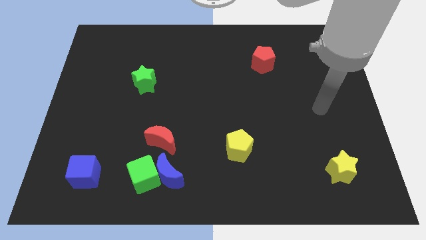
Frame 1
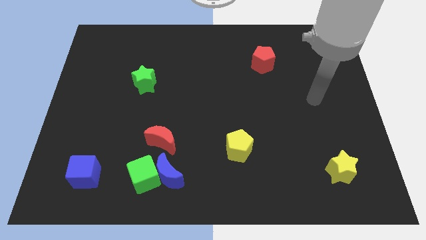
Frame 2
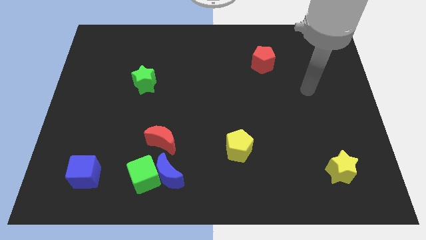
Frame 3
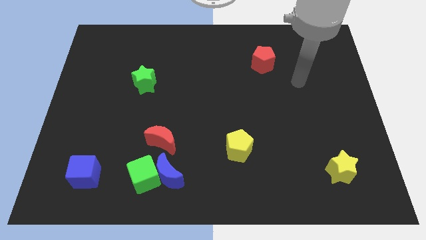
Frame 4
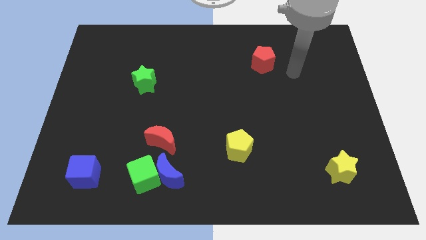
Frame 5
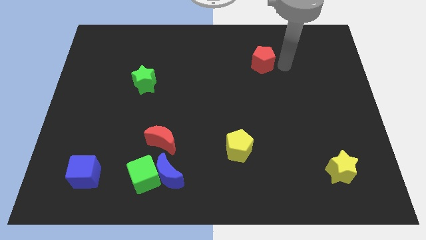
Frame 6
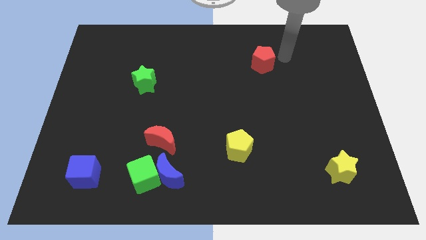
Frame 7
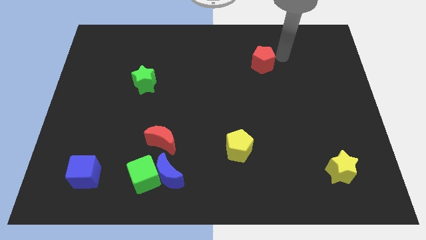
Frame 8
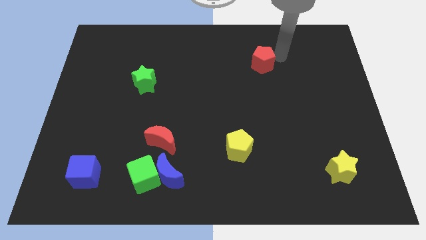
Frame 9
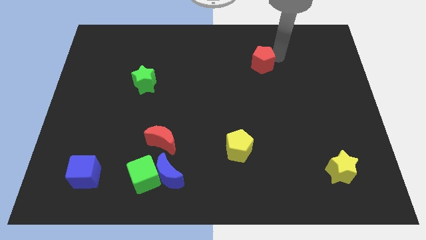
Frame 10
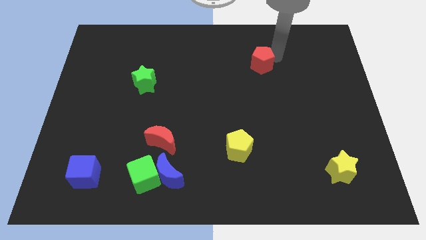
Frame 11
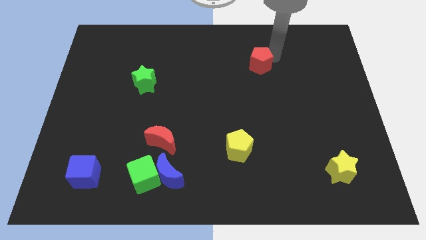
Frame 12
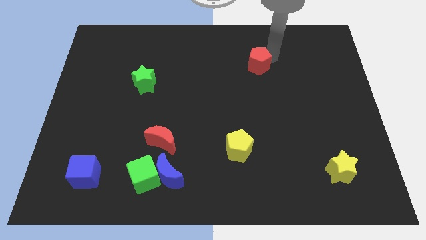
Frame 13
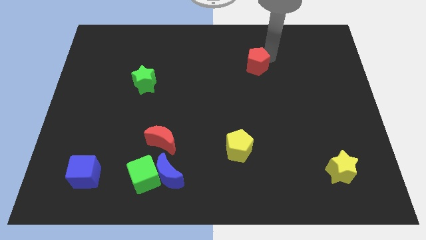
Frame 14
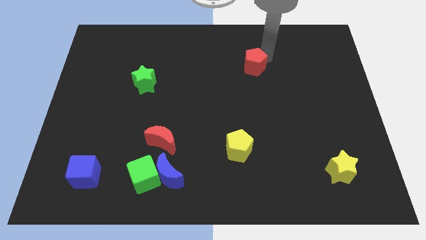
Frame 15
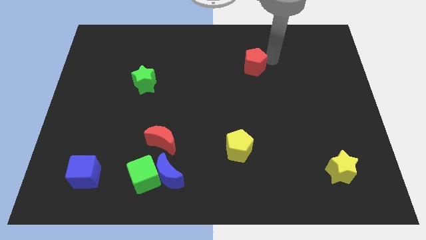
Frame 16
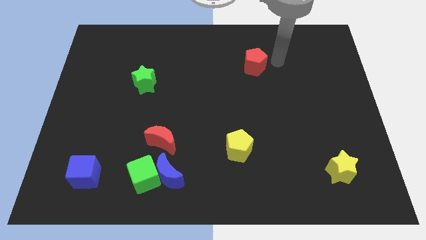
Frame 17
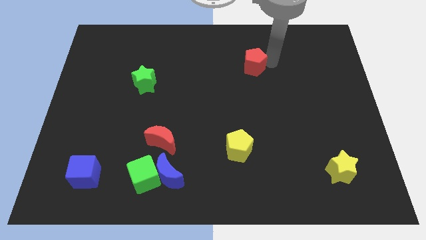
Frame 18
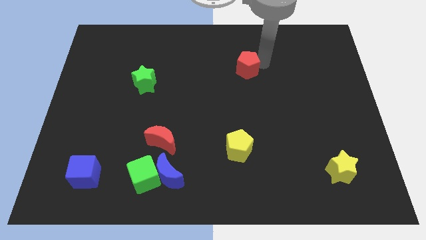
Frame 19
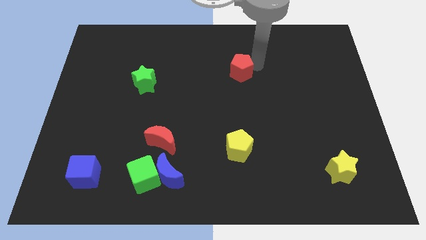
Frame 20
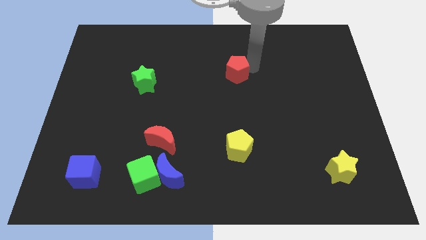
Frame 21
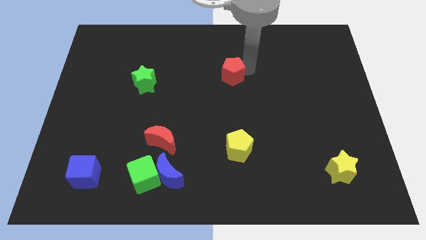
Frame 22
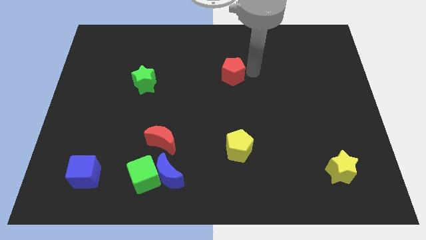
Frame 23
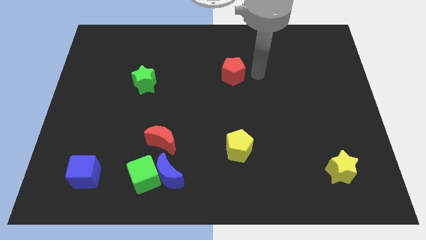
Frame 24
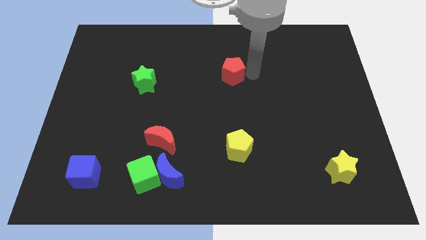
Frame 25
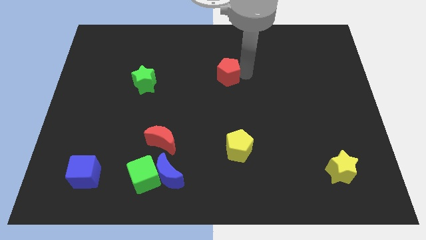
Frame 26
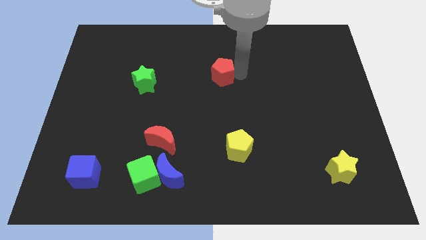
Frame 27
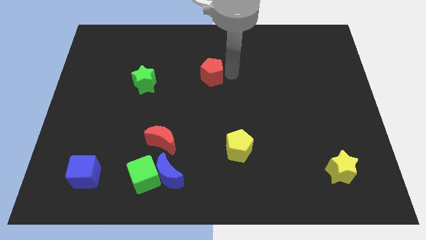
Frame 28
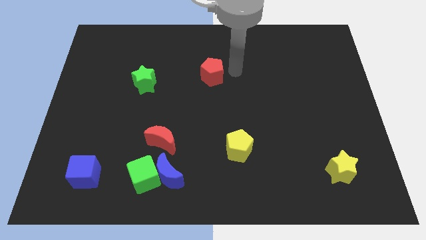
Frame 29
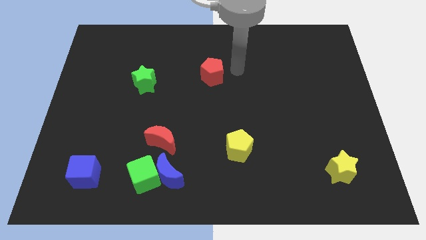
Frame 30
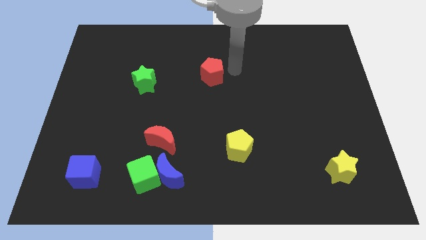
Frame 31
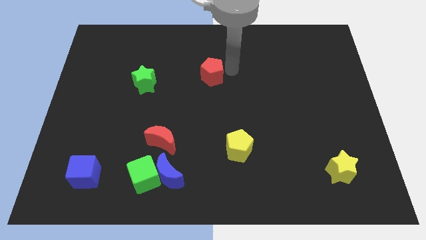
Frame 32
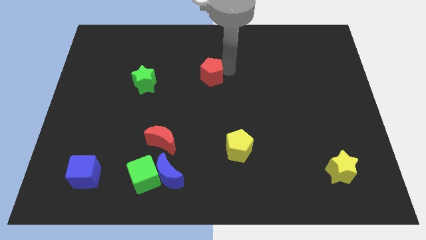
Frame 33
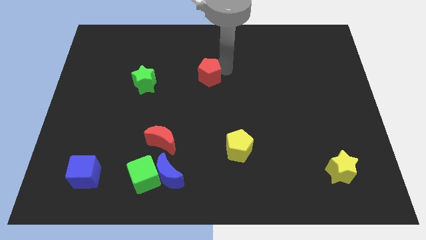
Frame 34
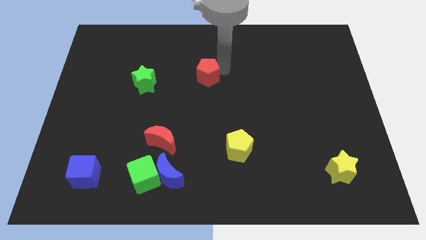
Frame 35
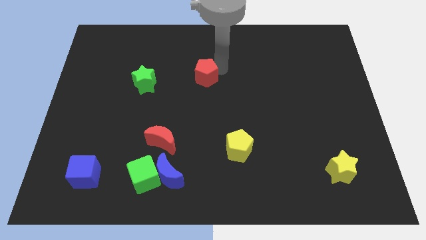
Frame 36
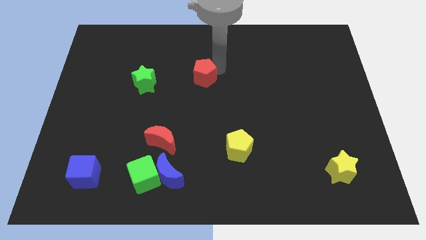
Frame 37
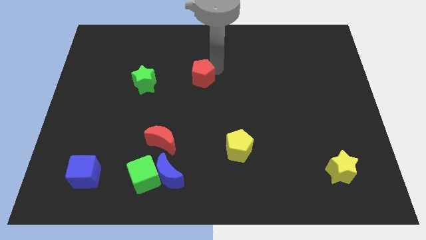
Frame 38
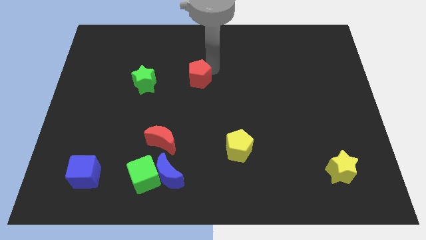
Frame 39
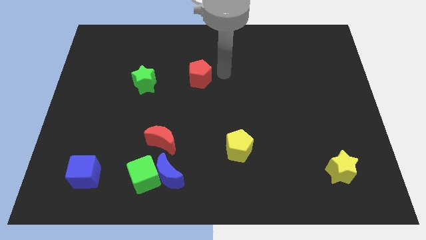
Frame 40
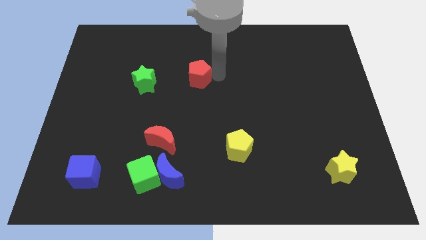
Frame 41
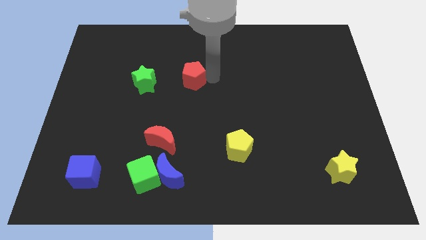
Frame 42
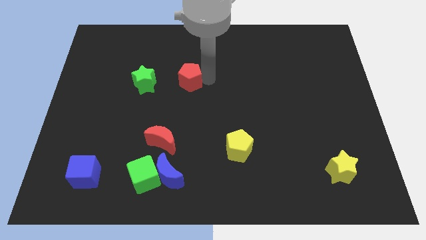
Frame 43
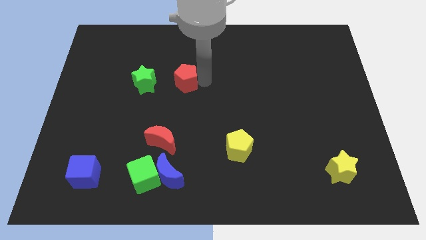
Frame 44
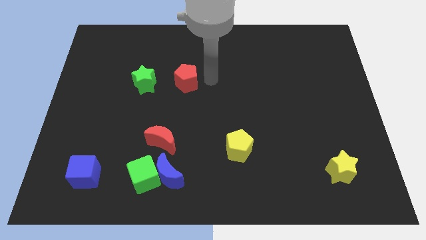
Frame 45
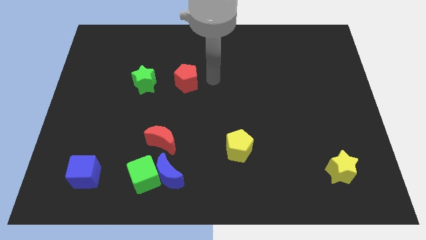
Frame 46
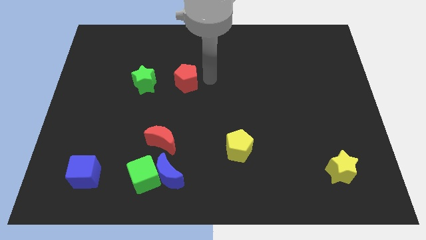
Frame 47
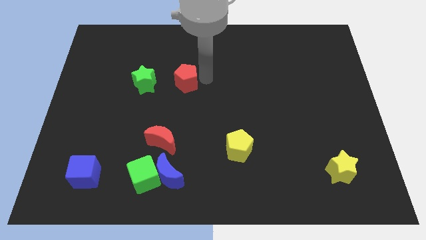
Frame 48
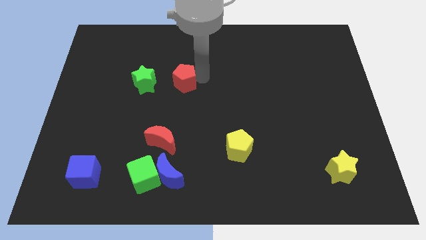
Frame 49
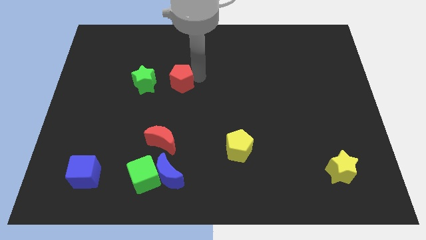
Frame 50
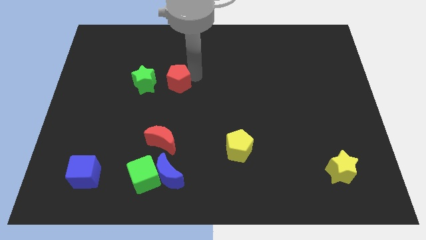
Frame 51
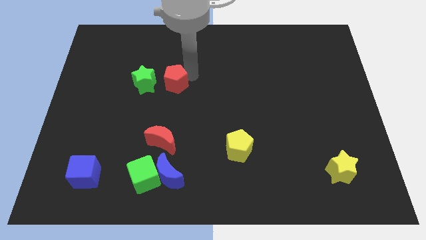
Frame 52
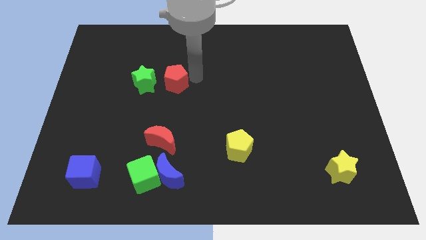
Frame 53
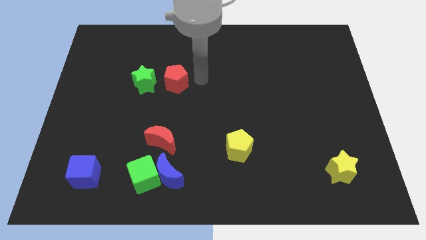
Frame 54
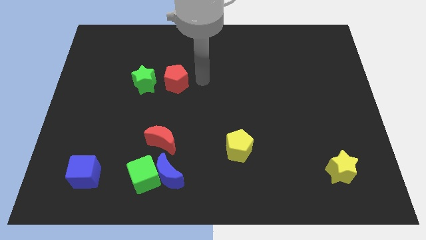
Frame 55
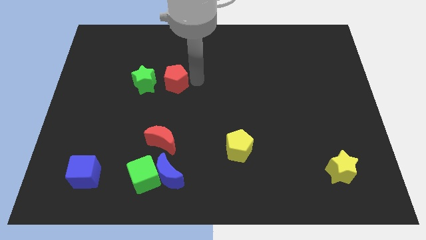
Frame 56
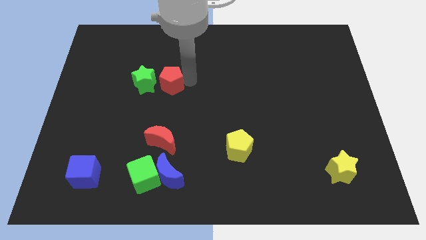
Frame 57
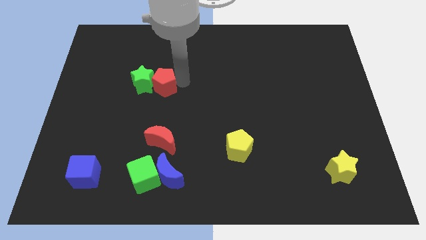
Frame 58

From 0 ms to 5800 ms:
move the red pentagon next to the green star

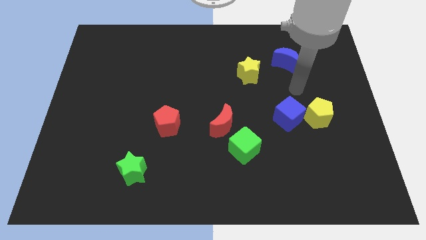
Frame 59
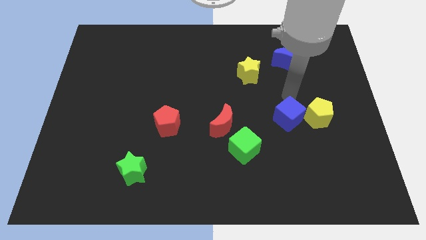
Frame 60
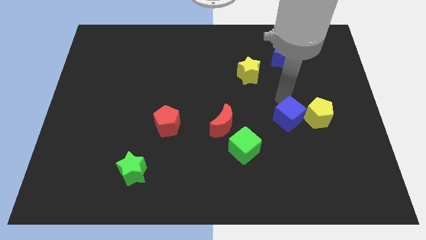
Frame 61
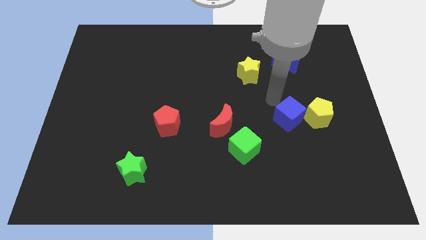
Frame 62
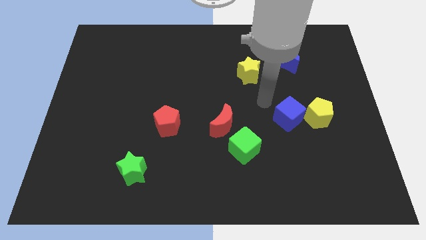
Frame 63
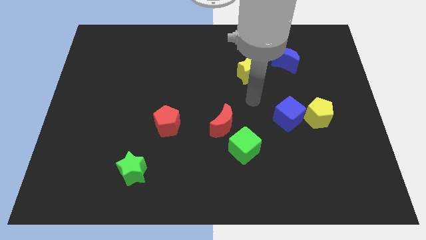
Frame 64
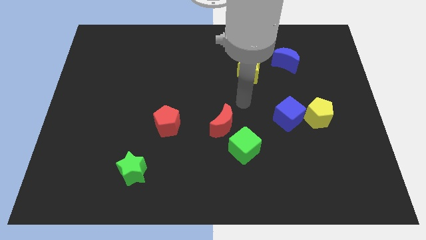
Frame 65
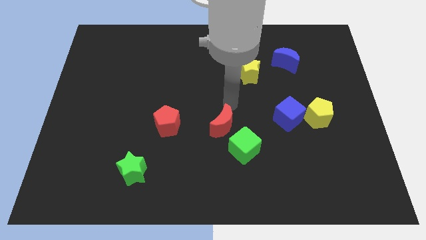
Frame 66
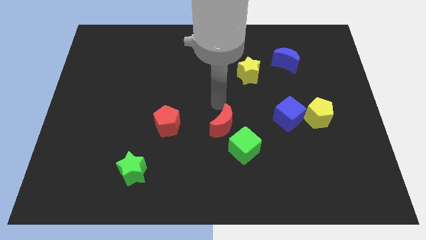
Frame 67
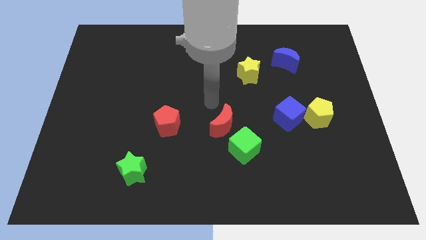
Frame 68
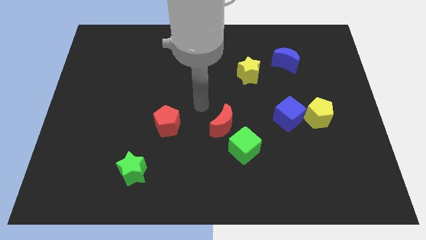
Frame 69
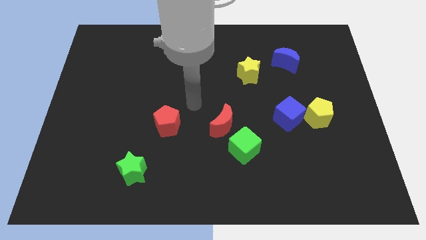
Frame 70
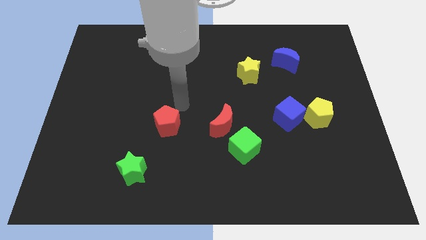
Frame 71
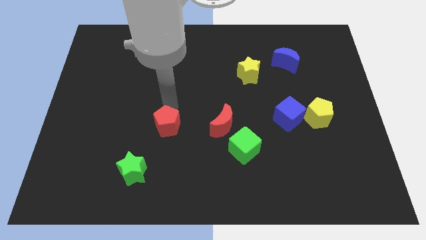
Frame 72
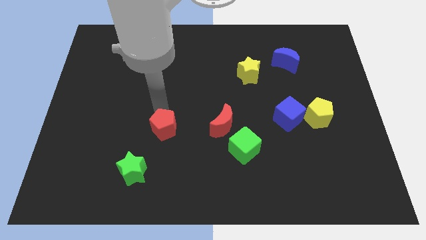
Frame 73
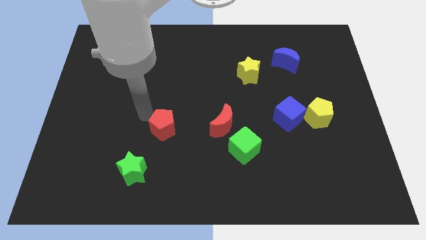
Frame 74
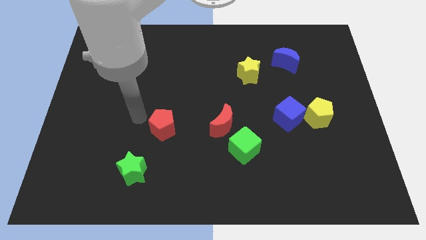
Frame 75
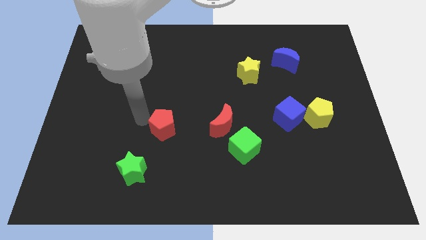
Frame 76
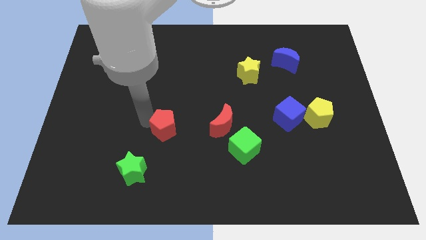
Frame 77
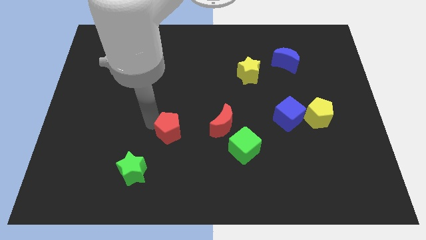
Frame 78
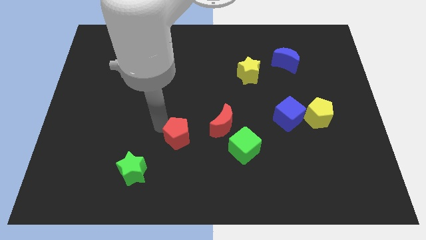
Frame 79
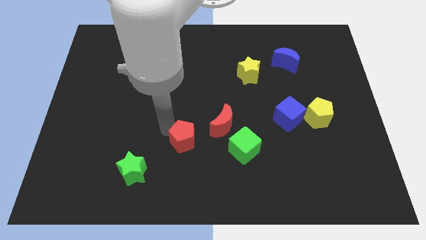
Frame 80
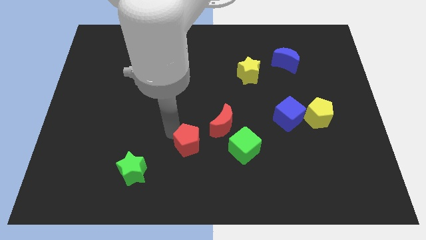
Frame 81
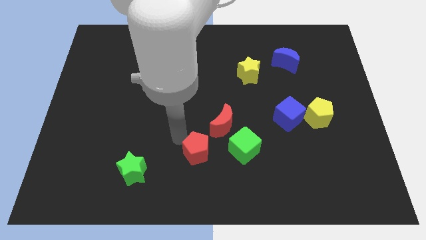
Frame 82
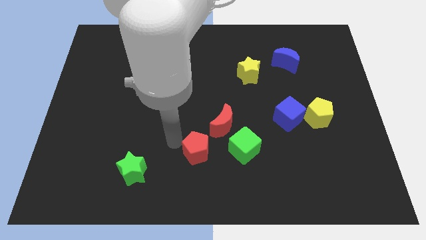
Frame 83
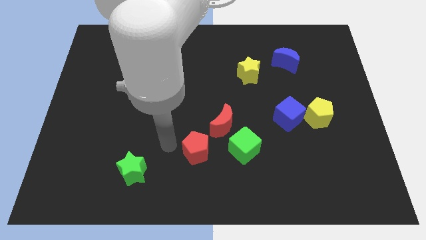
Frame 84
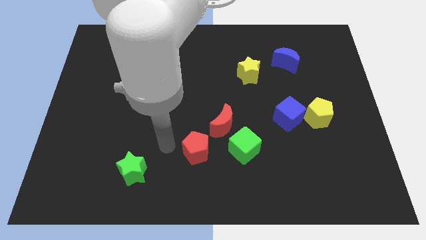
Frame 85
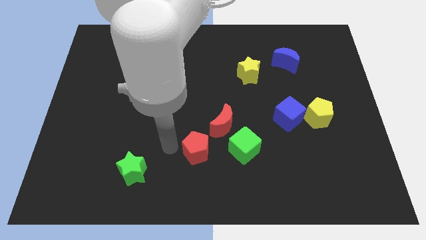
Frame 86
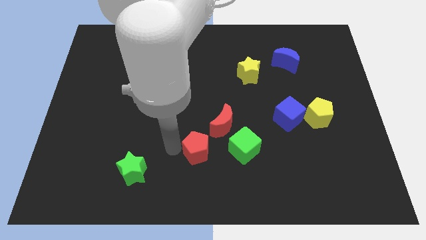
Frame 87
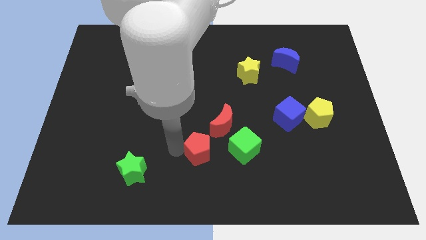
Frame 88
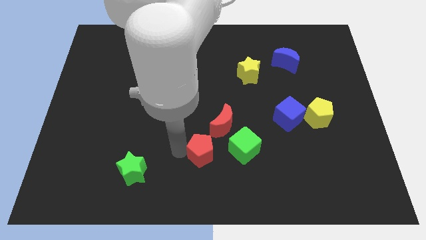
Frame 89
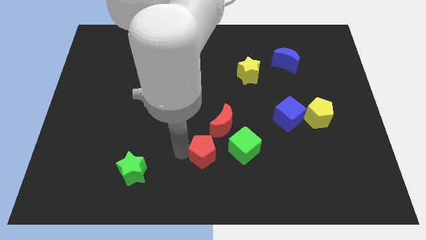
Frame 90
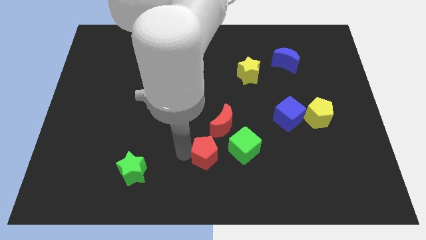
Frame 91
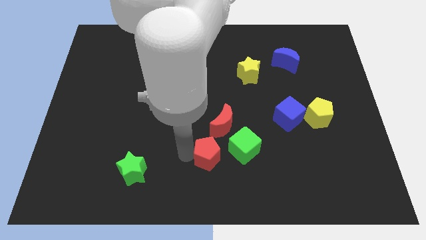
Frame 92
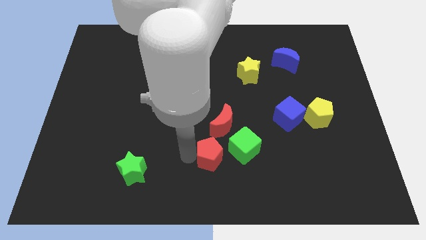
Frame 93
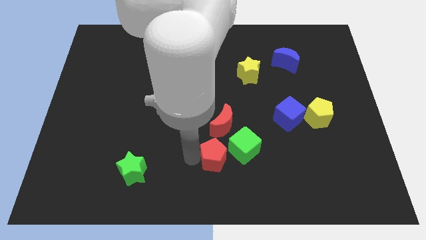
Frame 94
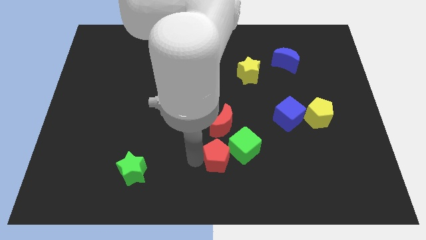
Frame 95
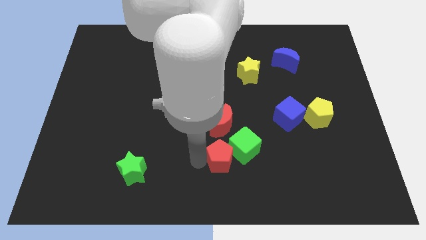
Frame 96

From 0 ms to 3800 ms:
move the red pentagon close to the green cube
